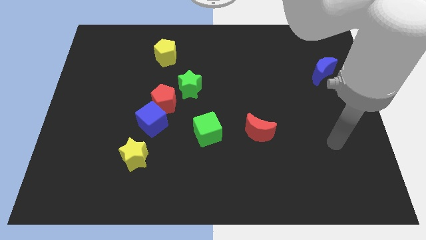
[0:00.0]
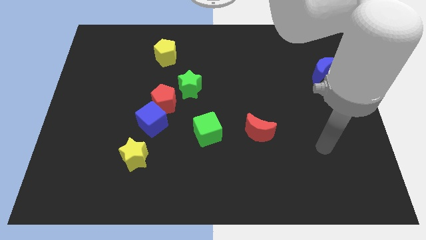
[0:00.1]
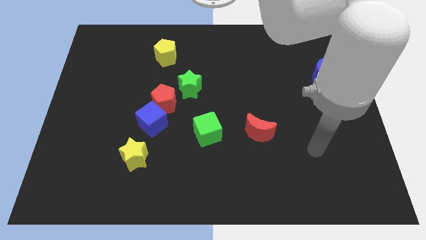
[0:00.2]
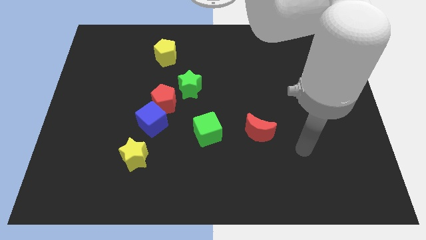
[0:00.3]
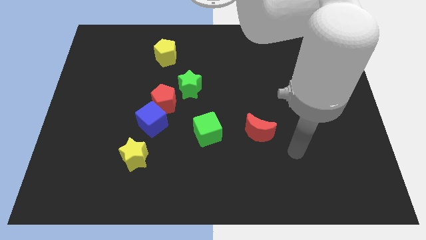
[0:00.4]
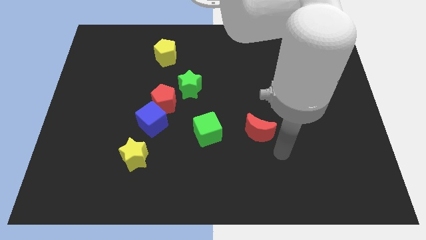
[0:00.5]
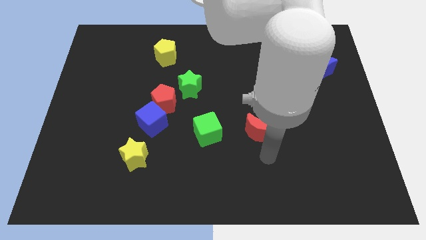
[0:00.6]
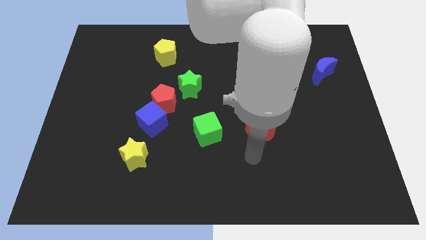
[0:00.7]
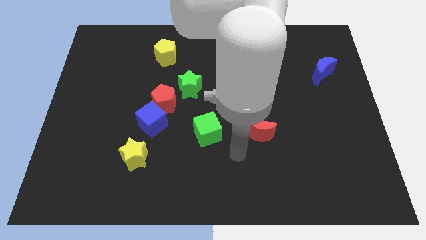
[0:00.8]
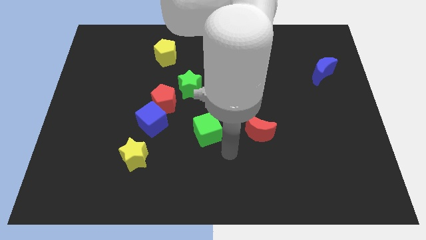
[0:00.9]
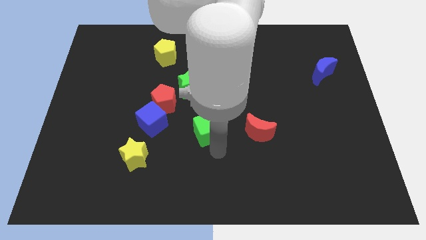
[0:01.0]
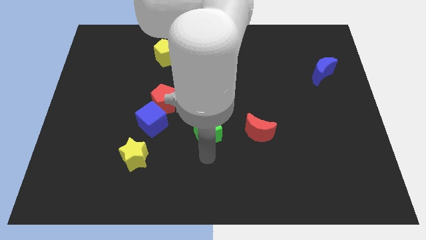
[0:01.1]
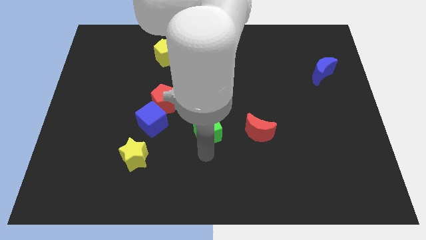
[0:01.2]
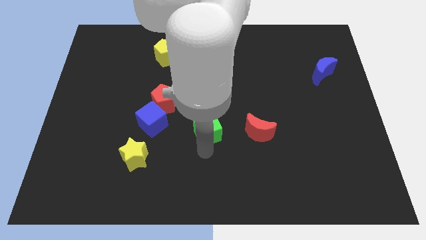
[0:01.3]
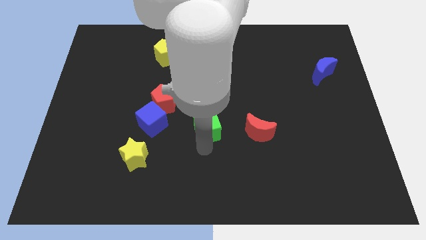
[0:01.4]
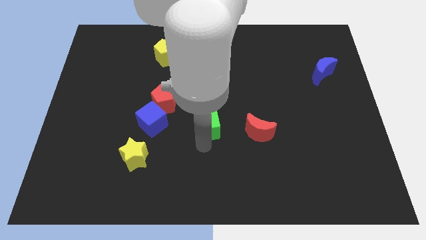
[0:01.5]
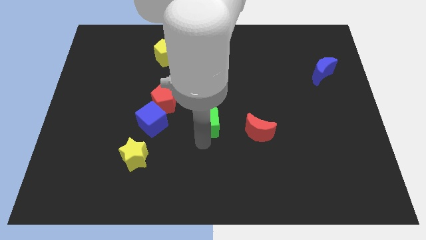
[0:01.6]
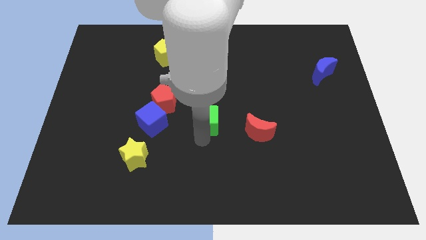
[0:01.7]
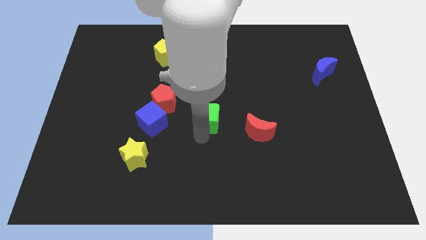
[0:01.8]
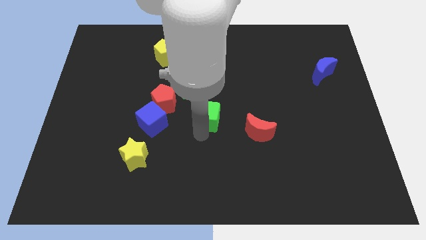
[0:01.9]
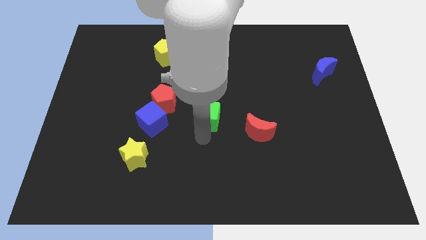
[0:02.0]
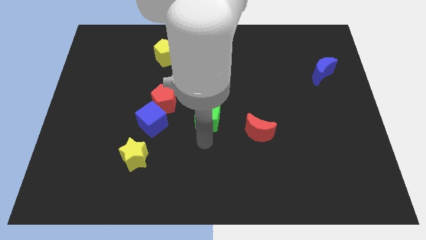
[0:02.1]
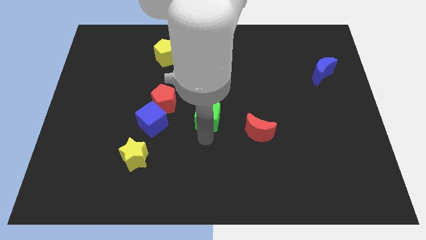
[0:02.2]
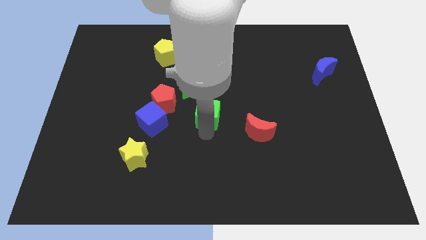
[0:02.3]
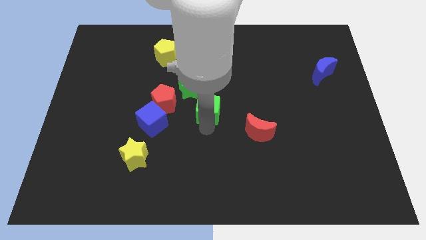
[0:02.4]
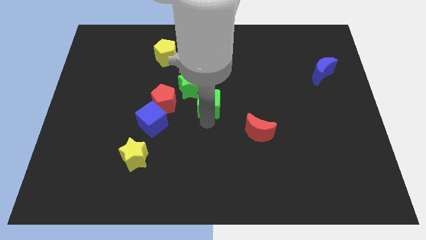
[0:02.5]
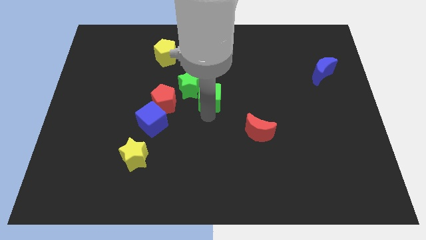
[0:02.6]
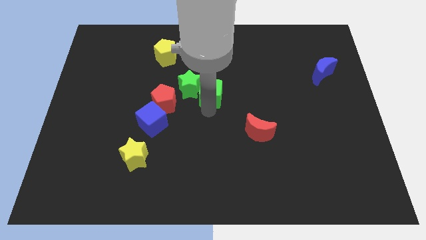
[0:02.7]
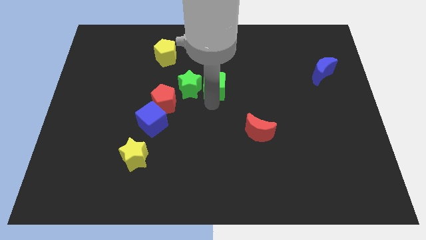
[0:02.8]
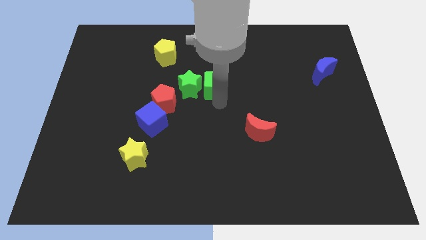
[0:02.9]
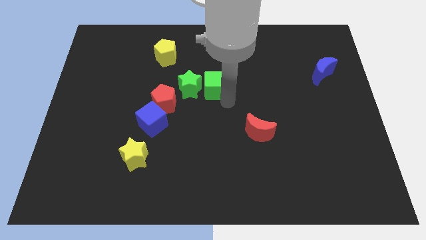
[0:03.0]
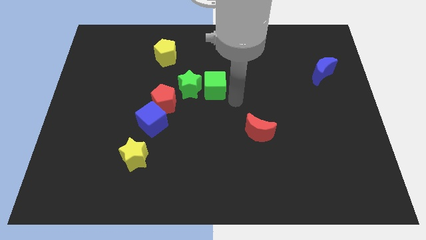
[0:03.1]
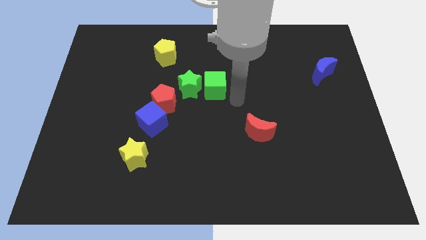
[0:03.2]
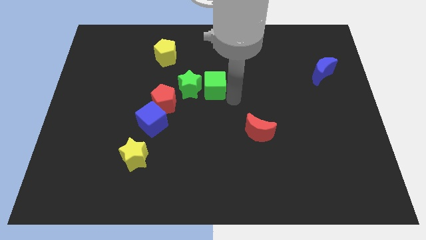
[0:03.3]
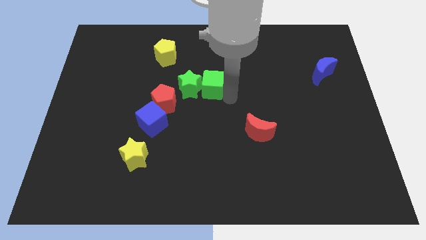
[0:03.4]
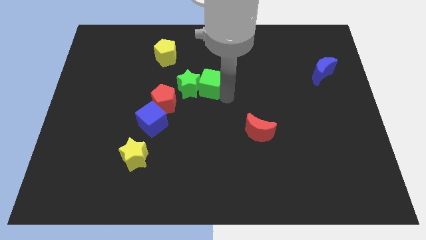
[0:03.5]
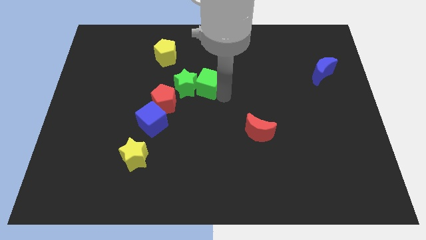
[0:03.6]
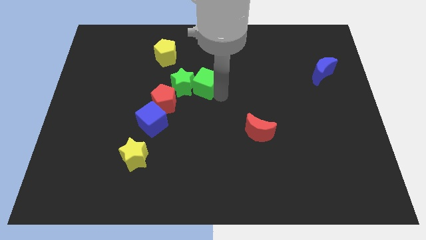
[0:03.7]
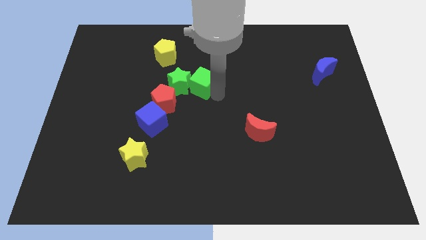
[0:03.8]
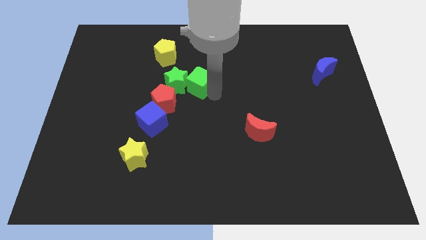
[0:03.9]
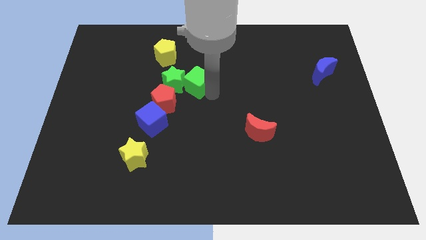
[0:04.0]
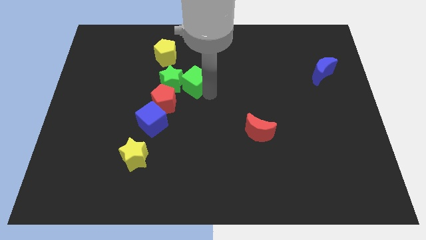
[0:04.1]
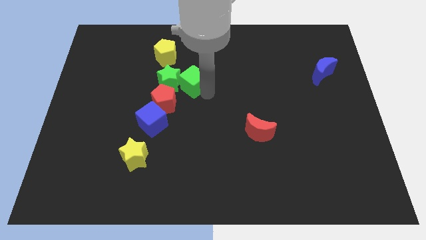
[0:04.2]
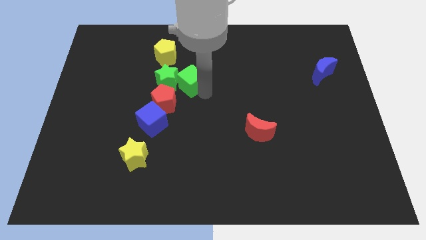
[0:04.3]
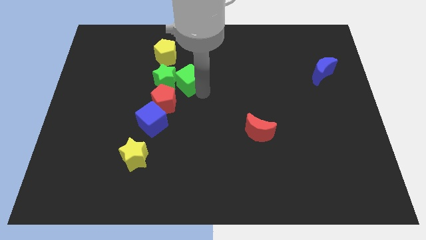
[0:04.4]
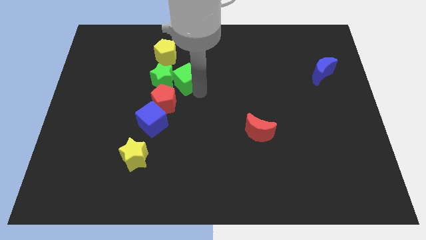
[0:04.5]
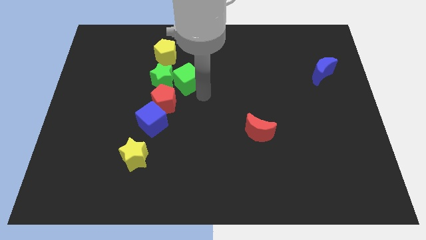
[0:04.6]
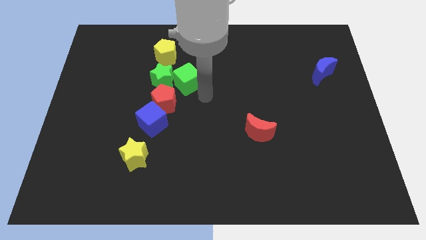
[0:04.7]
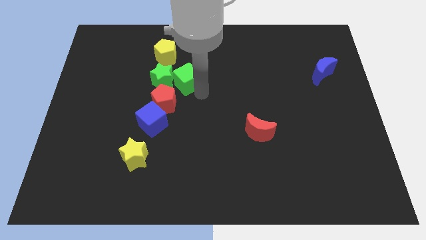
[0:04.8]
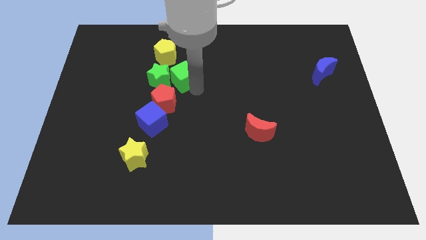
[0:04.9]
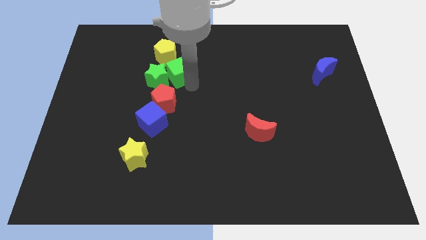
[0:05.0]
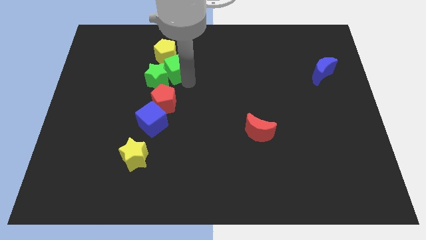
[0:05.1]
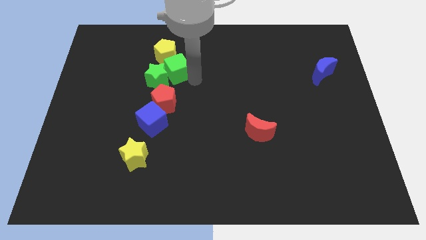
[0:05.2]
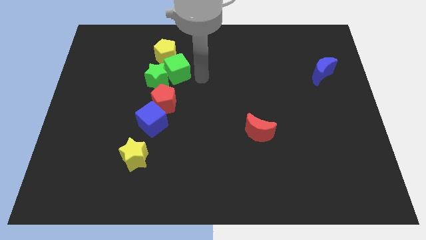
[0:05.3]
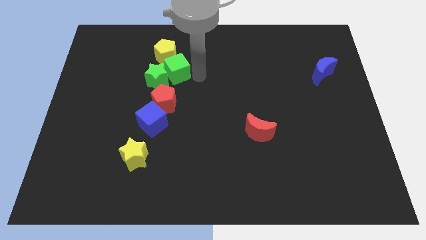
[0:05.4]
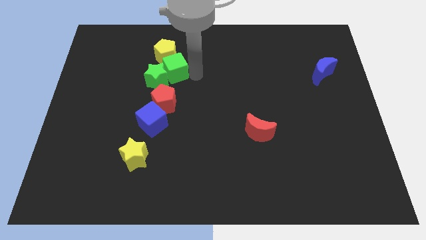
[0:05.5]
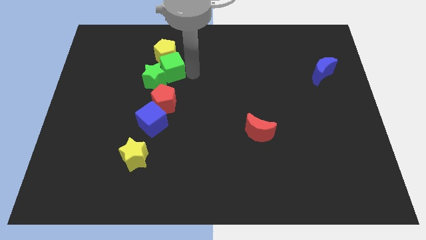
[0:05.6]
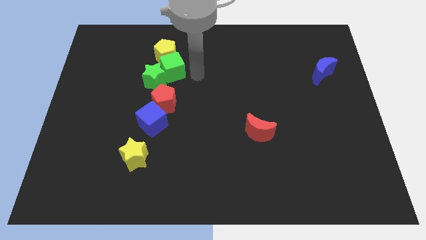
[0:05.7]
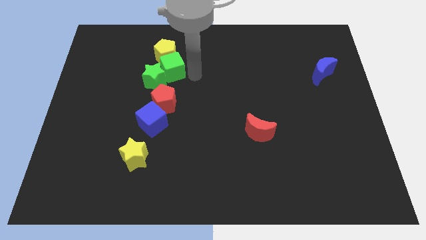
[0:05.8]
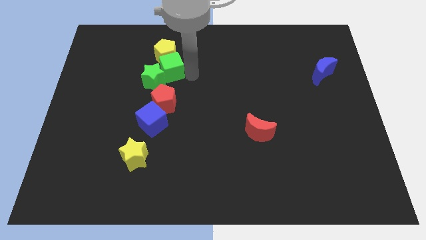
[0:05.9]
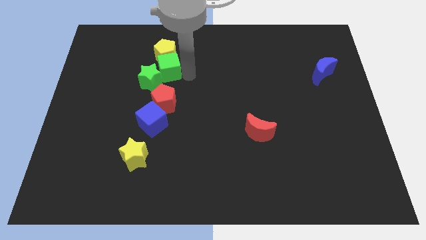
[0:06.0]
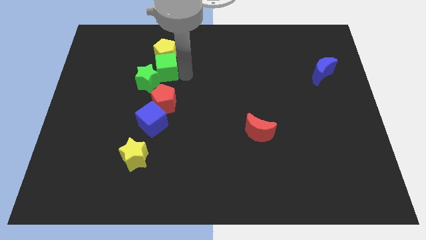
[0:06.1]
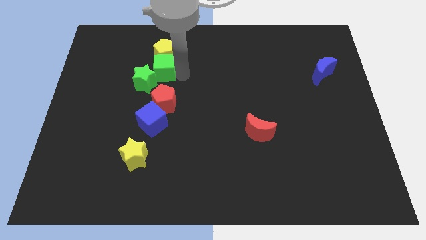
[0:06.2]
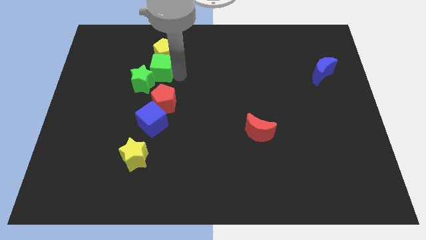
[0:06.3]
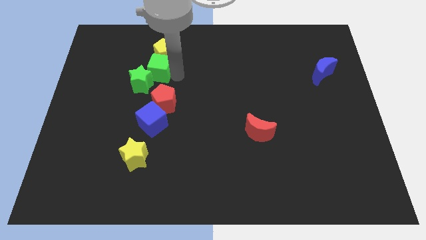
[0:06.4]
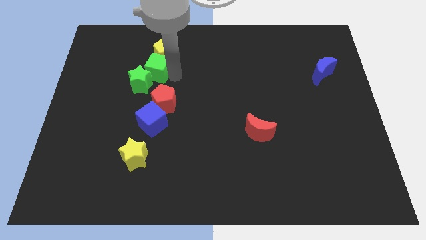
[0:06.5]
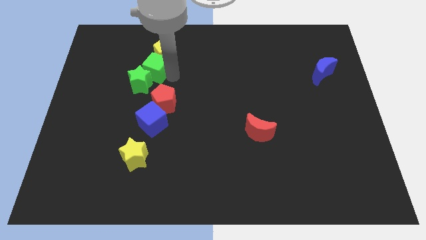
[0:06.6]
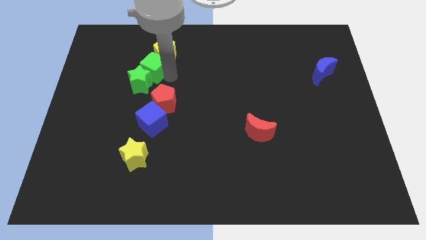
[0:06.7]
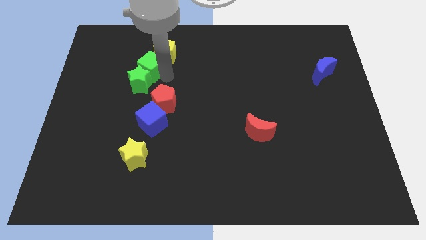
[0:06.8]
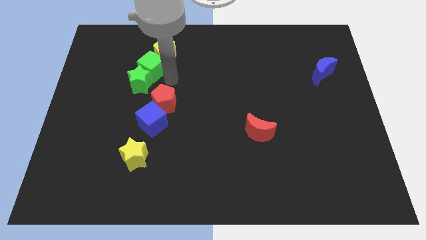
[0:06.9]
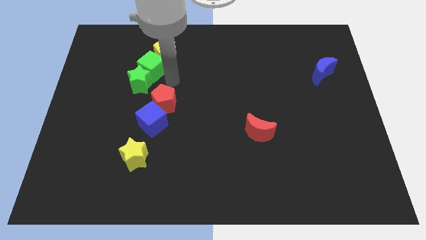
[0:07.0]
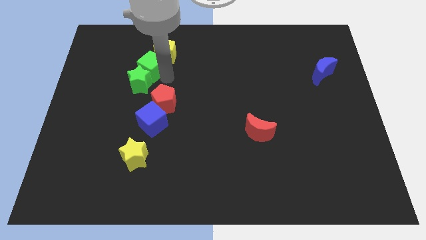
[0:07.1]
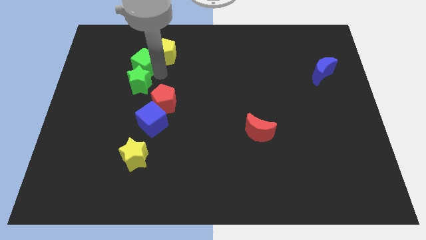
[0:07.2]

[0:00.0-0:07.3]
slide the green cube left of the yellow pentagon

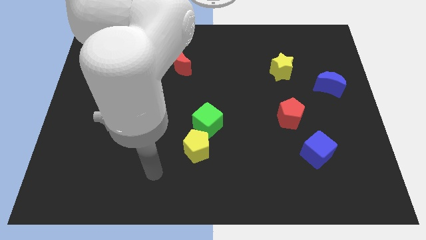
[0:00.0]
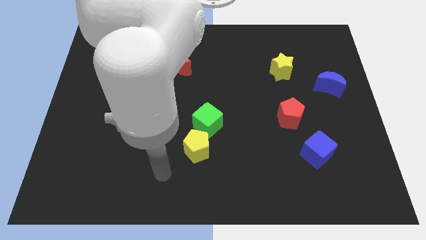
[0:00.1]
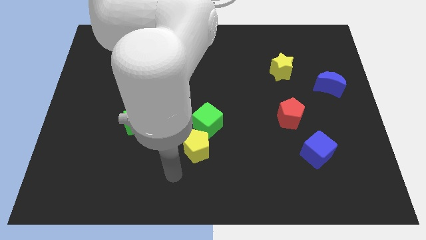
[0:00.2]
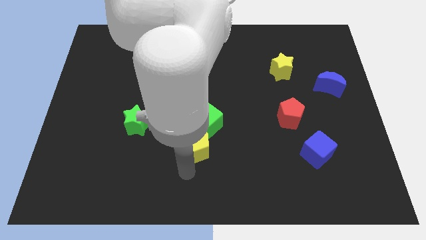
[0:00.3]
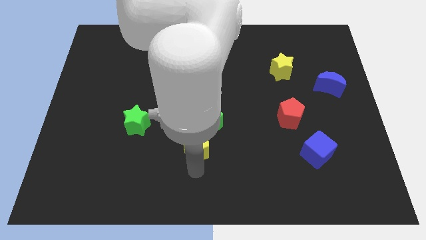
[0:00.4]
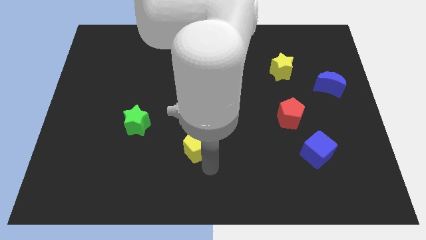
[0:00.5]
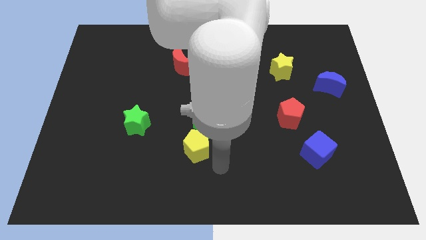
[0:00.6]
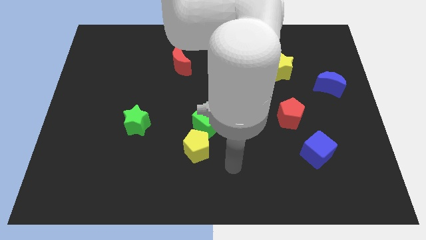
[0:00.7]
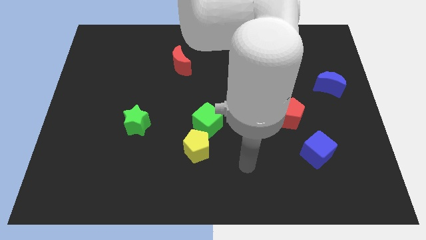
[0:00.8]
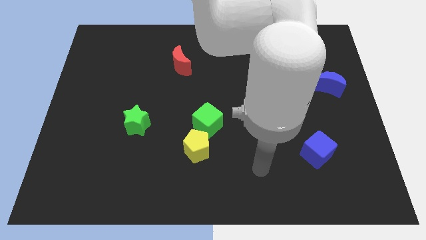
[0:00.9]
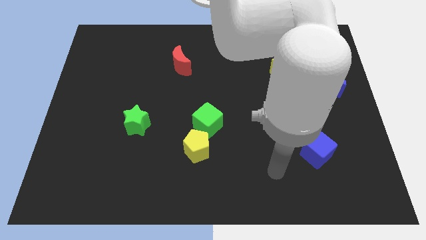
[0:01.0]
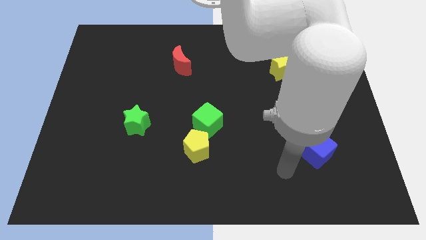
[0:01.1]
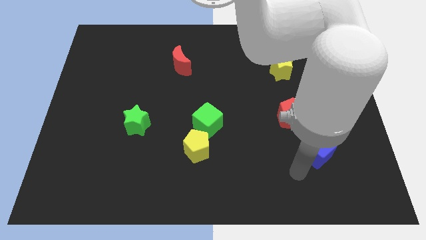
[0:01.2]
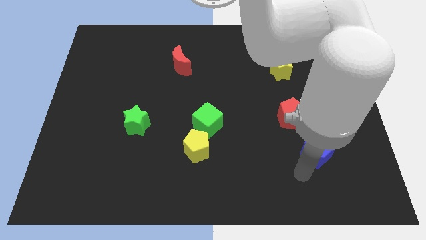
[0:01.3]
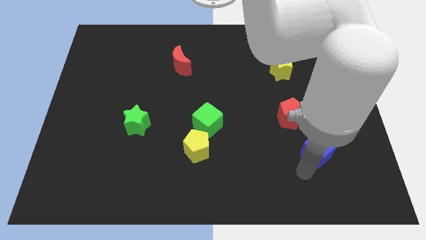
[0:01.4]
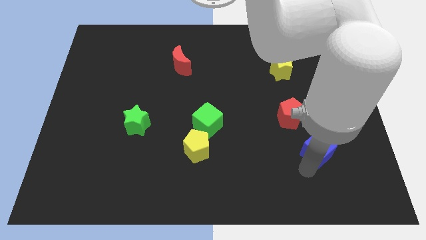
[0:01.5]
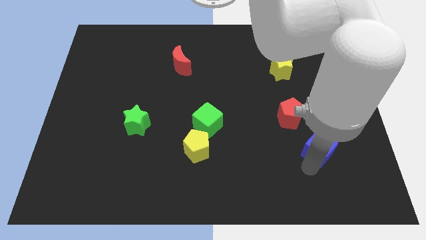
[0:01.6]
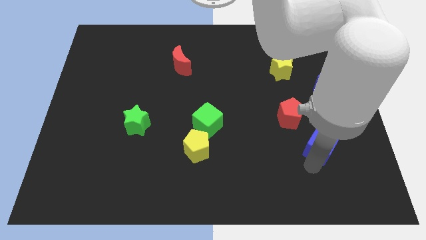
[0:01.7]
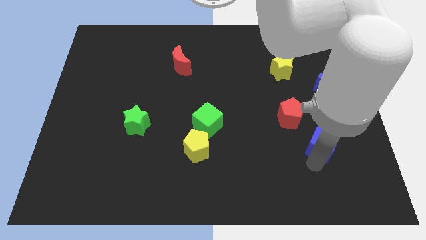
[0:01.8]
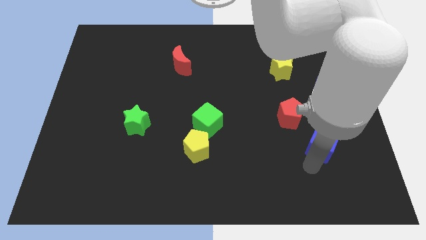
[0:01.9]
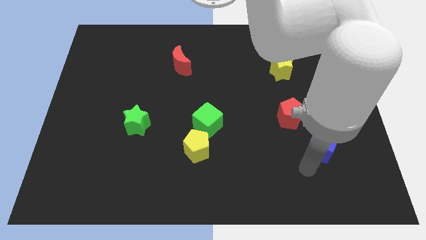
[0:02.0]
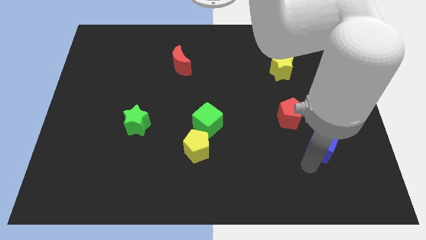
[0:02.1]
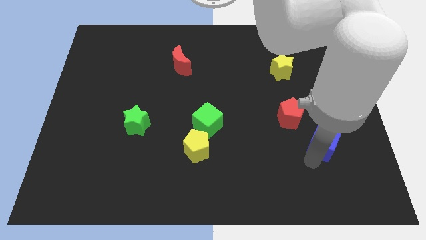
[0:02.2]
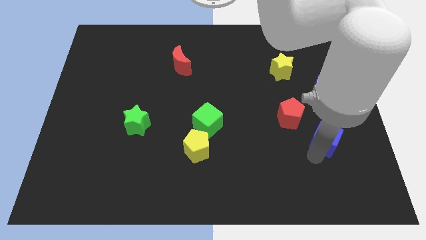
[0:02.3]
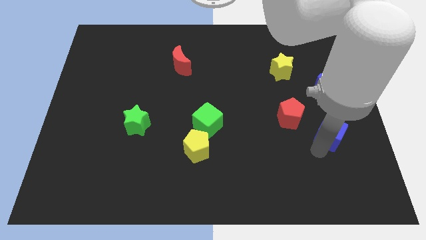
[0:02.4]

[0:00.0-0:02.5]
put the blue cube below the blue moon
